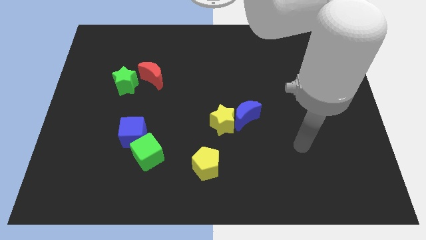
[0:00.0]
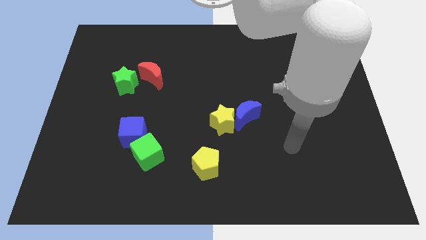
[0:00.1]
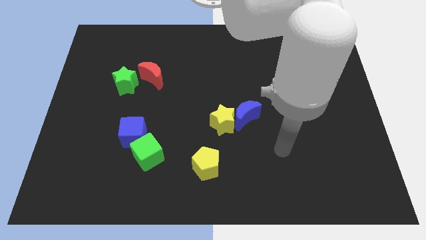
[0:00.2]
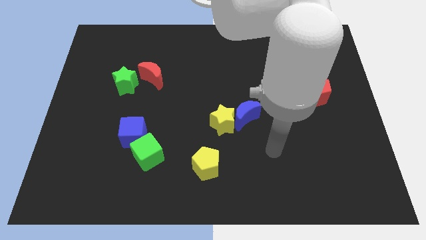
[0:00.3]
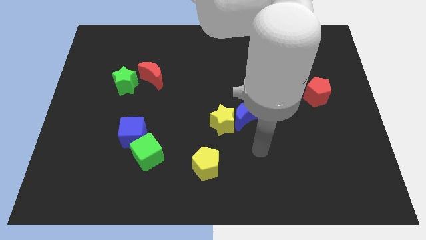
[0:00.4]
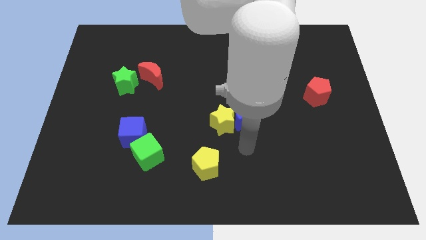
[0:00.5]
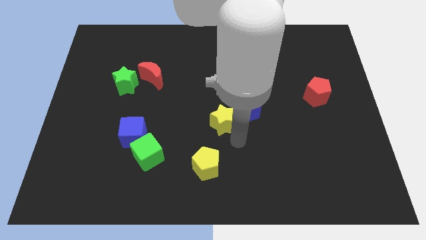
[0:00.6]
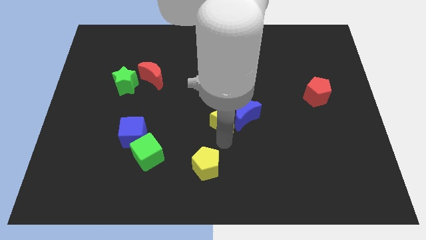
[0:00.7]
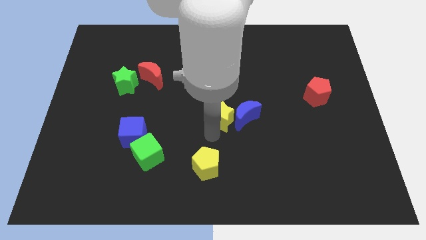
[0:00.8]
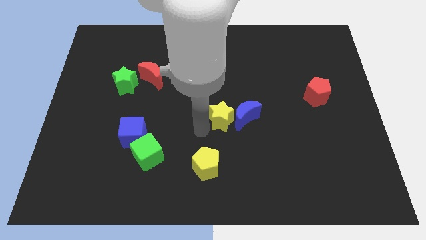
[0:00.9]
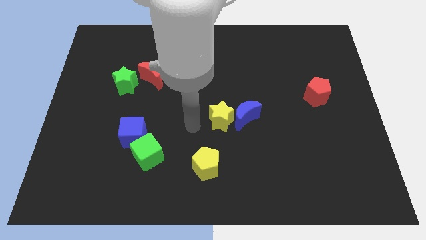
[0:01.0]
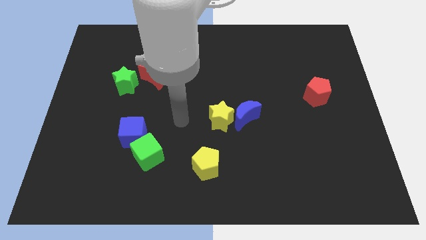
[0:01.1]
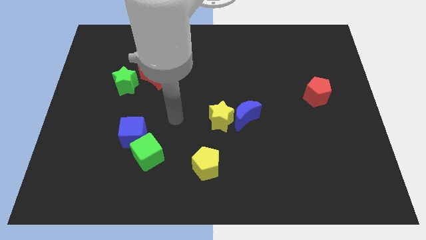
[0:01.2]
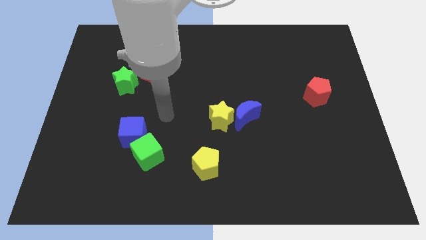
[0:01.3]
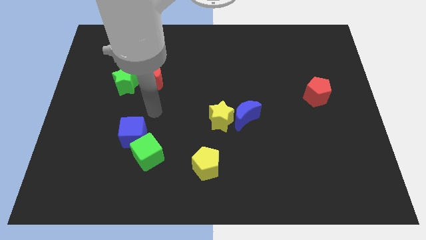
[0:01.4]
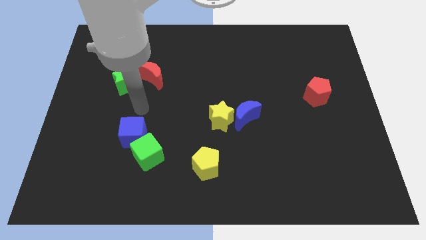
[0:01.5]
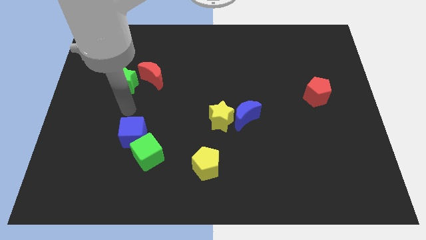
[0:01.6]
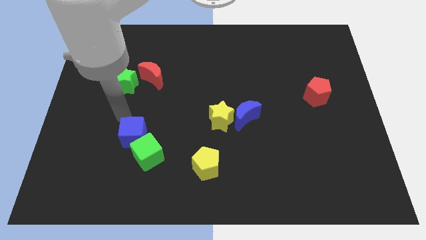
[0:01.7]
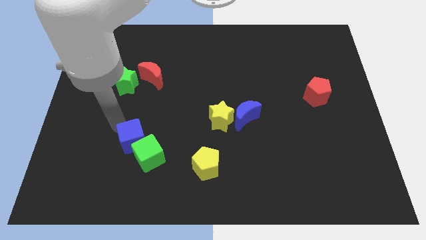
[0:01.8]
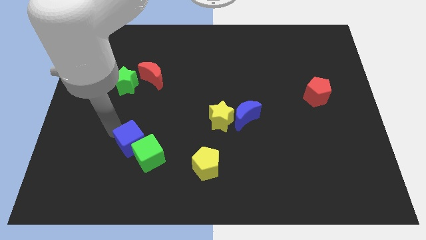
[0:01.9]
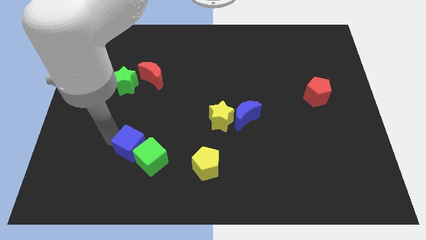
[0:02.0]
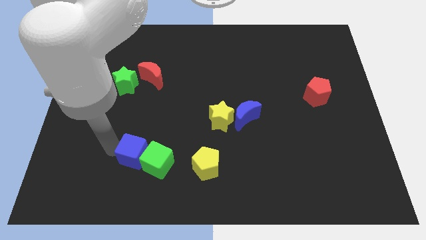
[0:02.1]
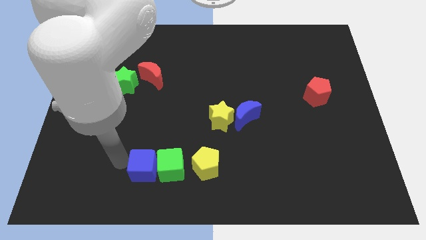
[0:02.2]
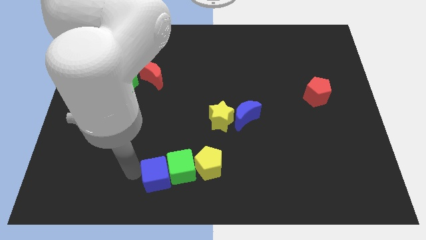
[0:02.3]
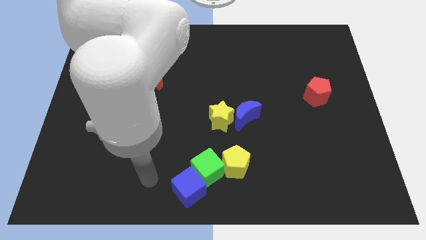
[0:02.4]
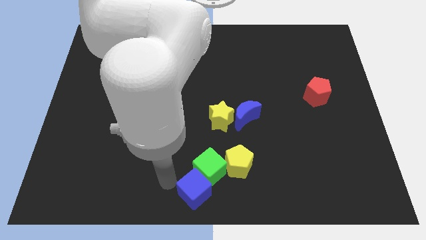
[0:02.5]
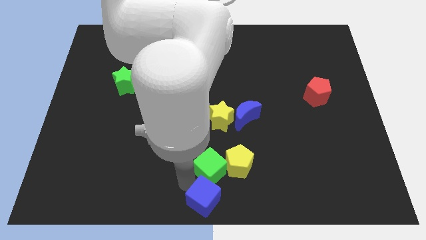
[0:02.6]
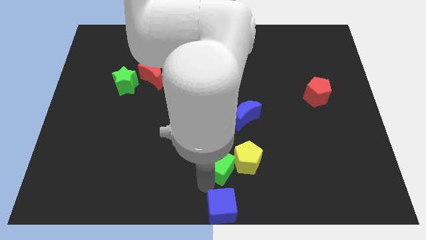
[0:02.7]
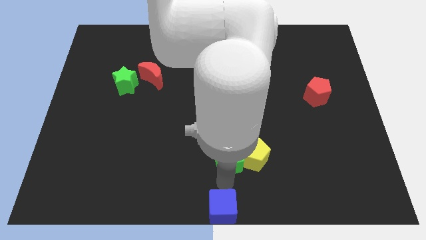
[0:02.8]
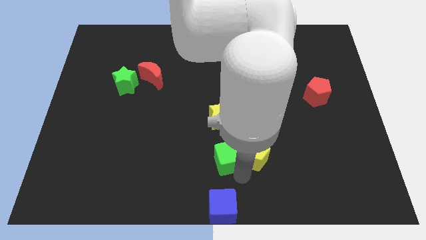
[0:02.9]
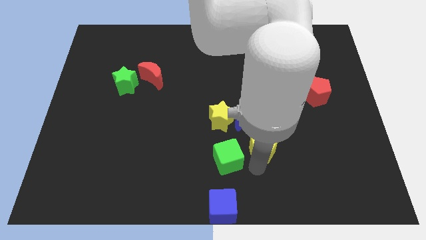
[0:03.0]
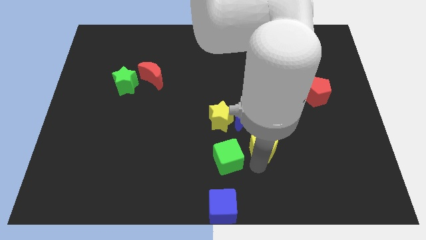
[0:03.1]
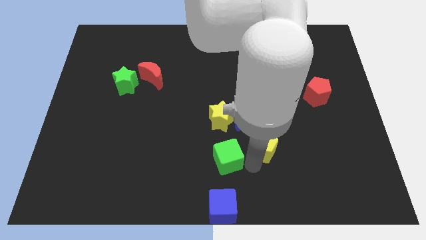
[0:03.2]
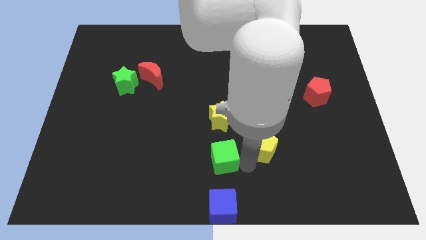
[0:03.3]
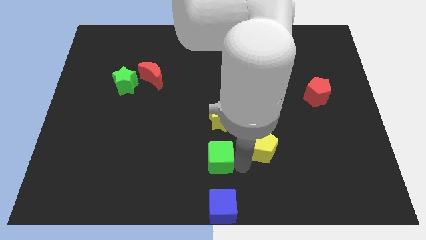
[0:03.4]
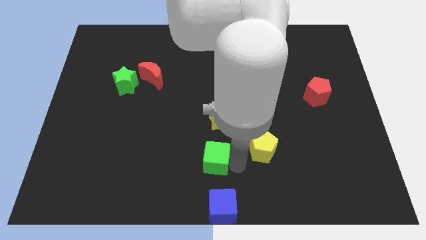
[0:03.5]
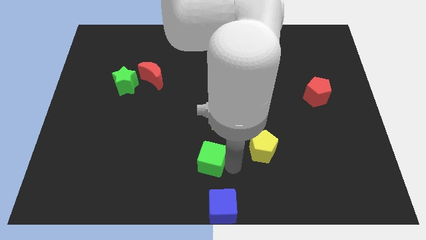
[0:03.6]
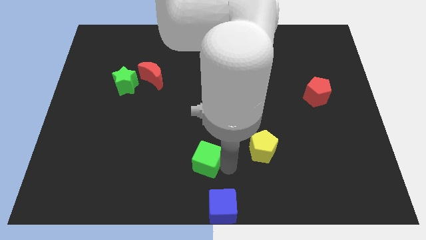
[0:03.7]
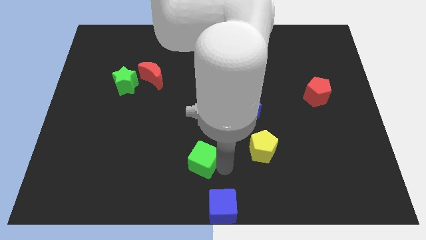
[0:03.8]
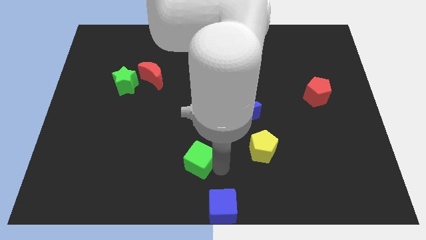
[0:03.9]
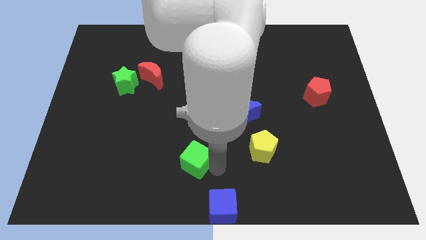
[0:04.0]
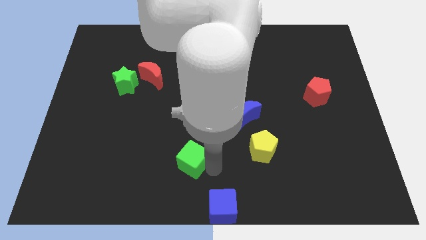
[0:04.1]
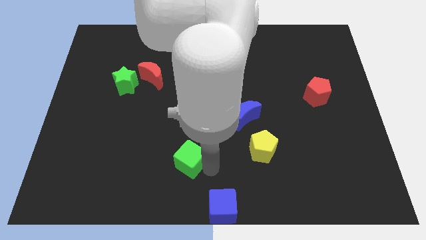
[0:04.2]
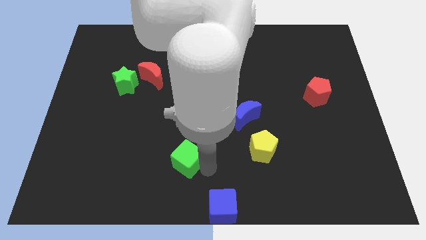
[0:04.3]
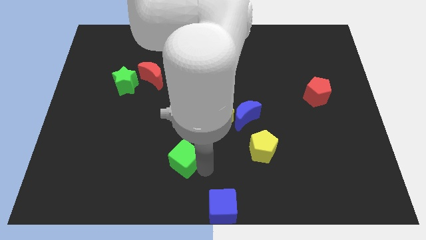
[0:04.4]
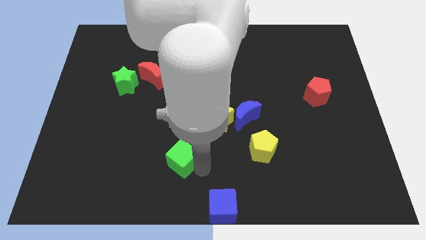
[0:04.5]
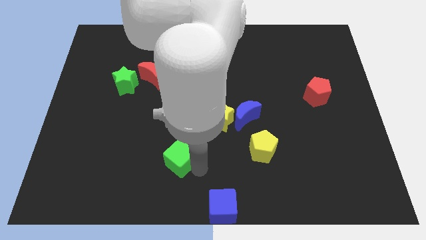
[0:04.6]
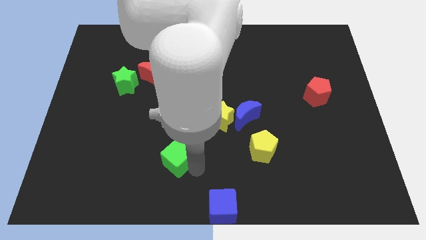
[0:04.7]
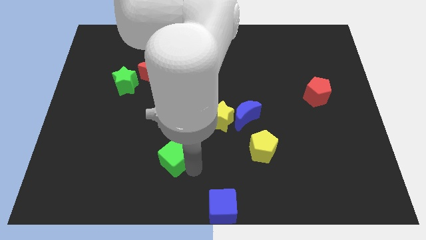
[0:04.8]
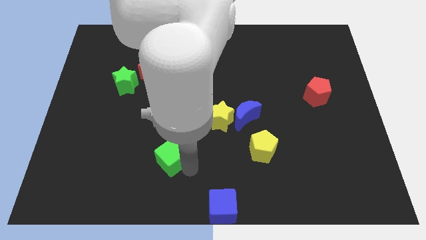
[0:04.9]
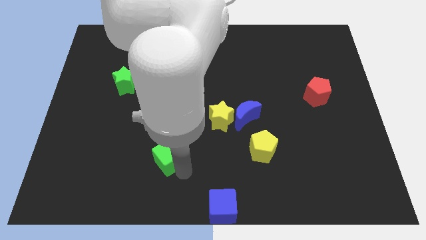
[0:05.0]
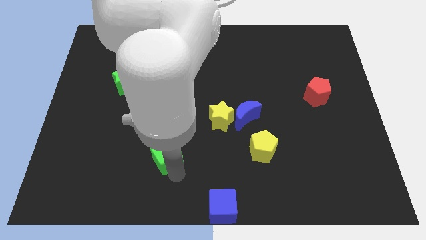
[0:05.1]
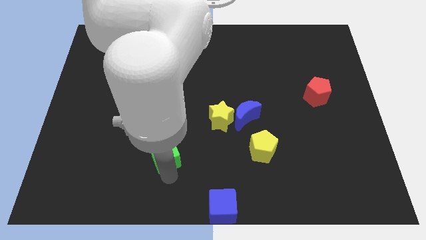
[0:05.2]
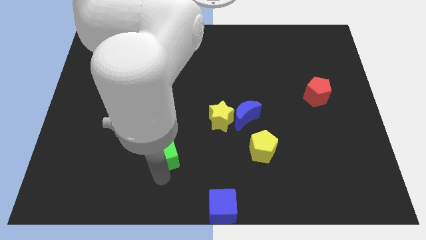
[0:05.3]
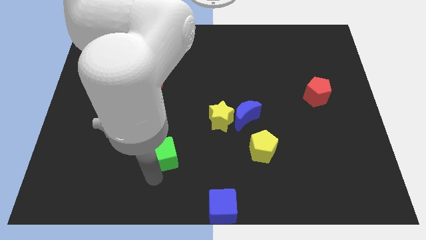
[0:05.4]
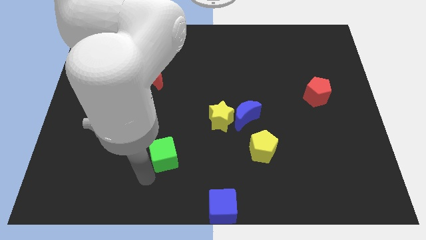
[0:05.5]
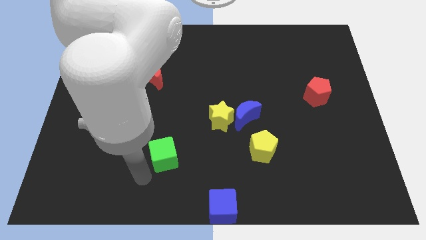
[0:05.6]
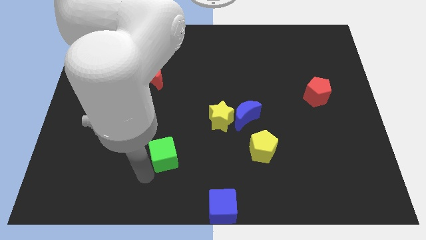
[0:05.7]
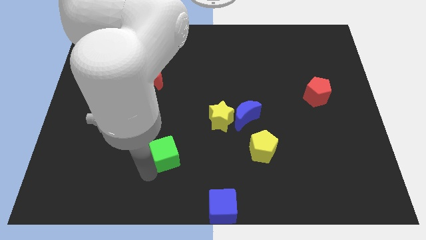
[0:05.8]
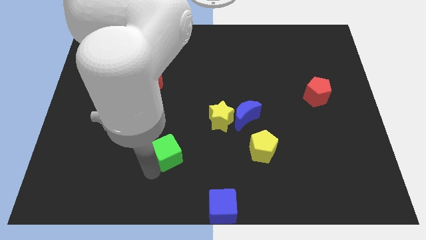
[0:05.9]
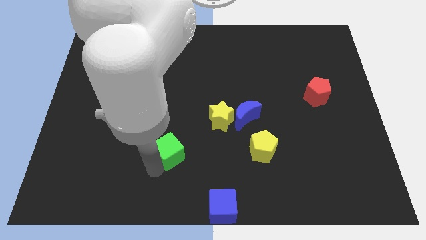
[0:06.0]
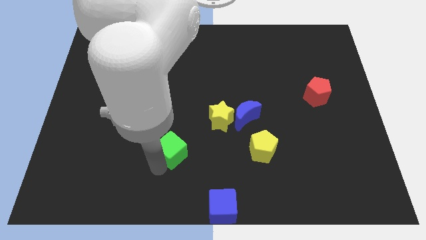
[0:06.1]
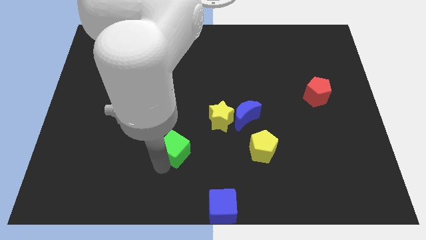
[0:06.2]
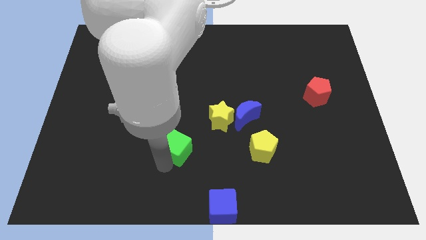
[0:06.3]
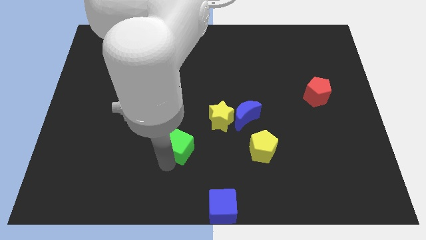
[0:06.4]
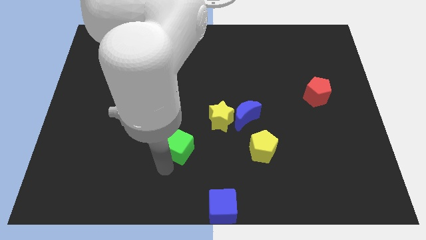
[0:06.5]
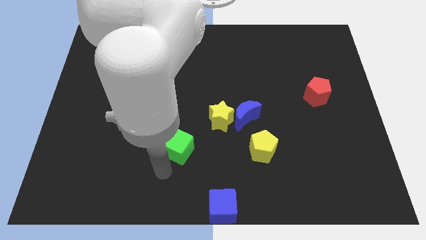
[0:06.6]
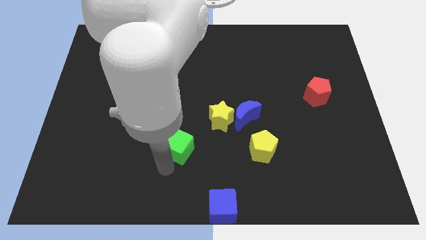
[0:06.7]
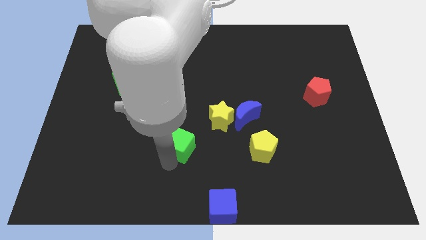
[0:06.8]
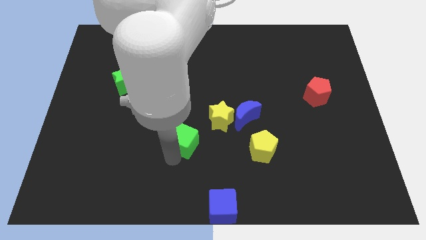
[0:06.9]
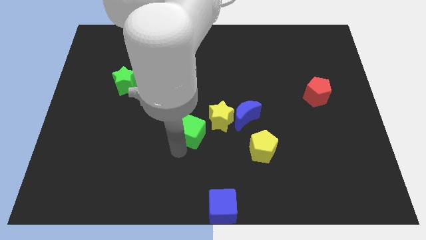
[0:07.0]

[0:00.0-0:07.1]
push the green cube to the center of the board
